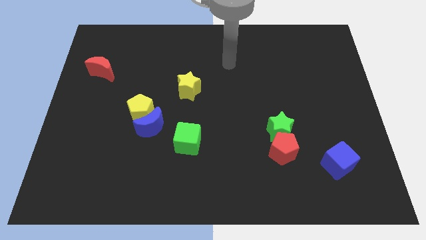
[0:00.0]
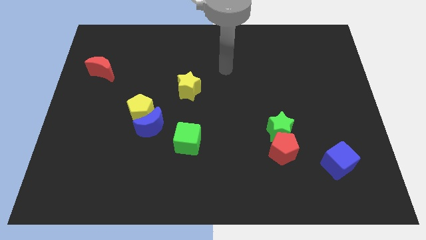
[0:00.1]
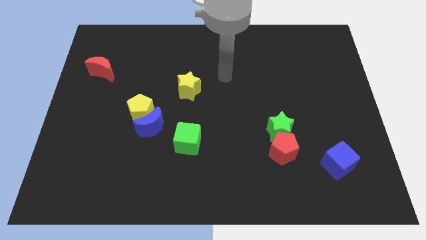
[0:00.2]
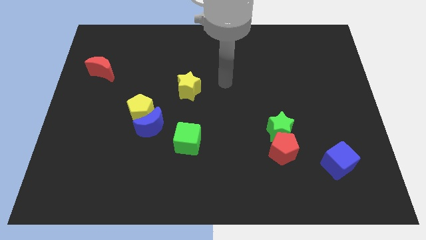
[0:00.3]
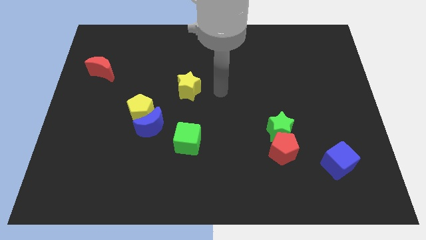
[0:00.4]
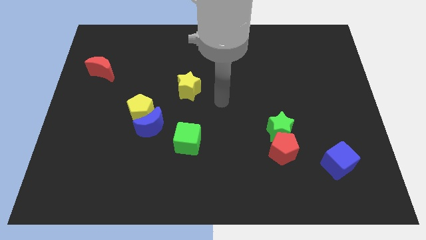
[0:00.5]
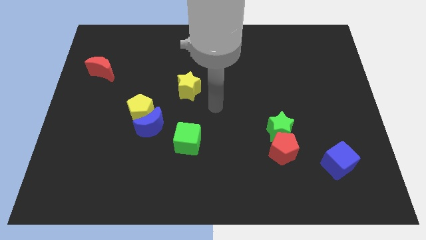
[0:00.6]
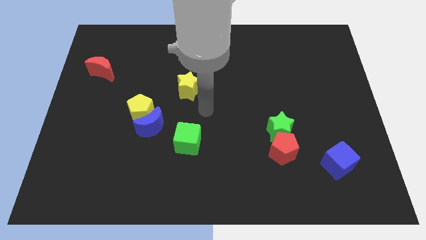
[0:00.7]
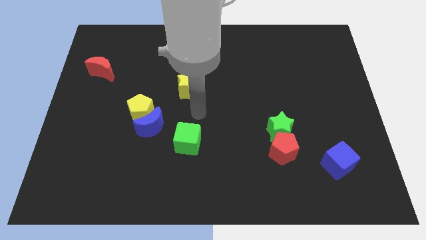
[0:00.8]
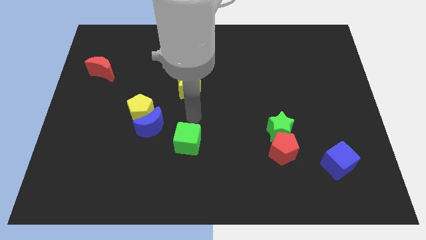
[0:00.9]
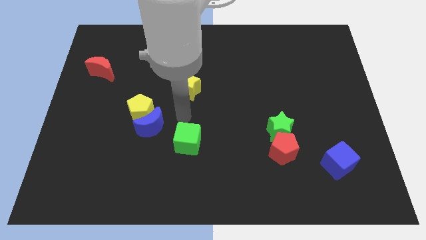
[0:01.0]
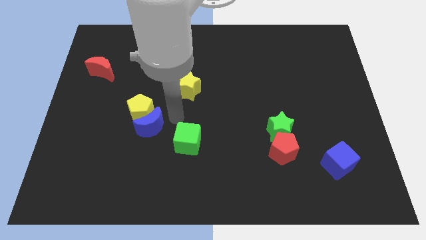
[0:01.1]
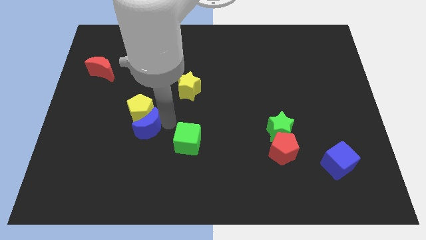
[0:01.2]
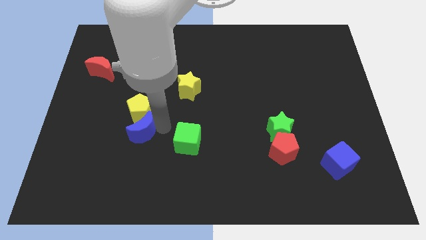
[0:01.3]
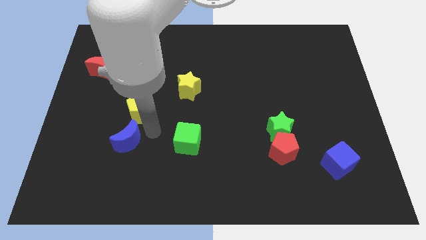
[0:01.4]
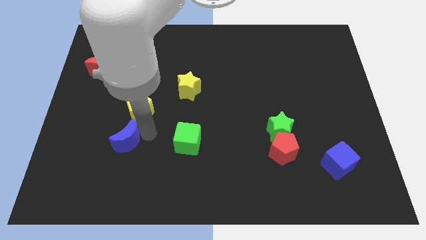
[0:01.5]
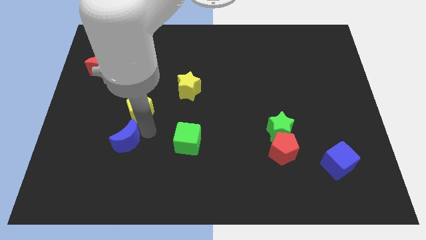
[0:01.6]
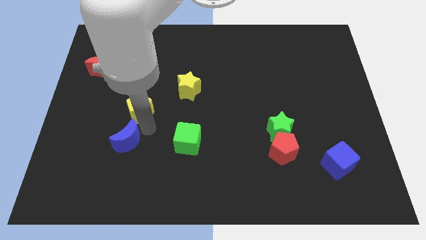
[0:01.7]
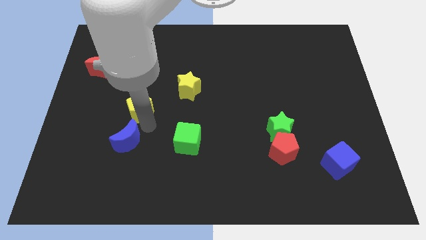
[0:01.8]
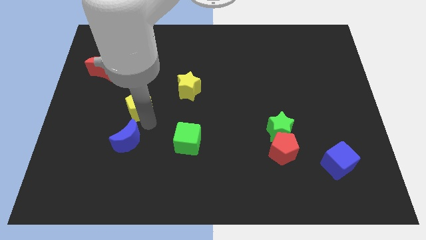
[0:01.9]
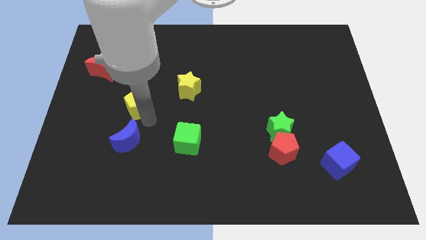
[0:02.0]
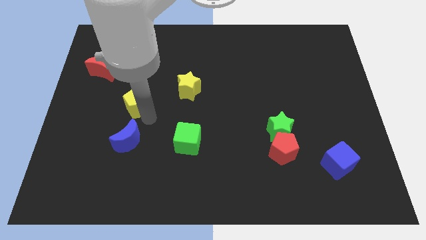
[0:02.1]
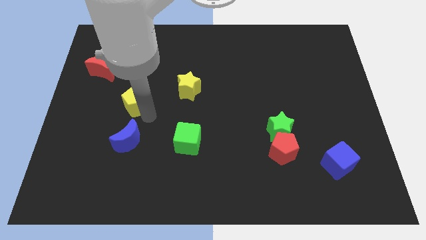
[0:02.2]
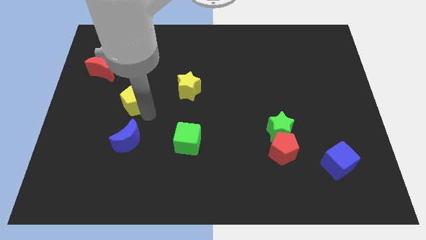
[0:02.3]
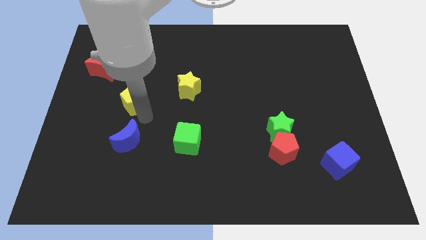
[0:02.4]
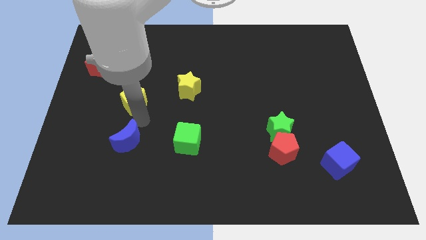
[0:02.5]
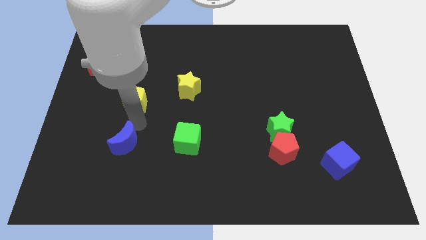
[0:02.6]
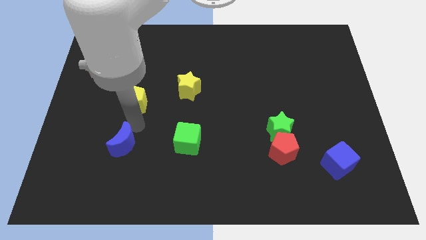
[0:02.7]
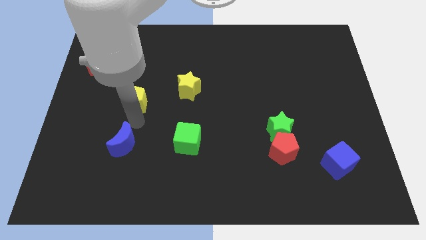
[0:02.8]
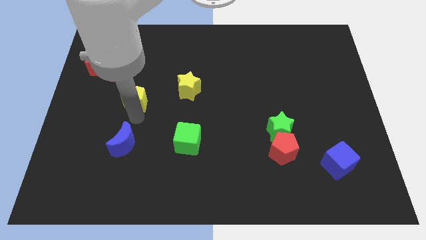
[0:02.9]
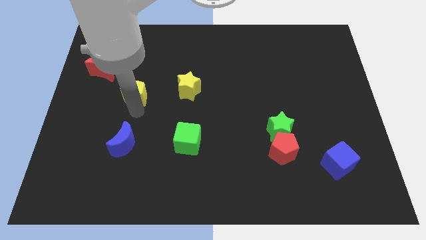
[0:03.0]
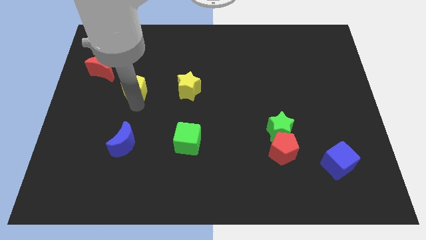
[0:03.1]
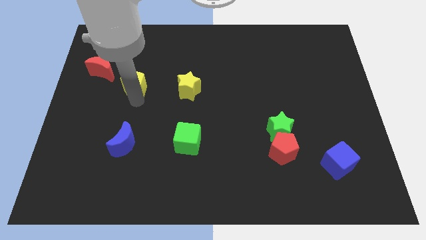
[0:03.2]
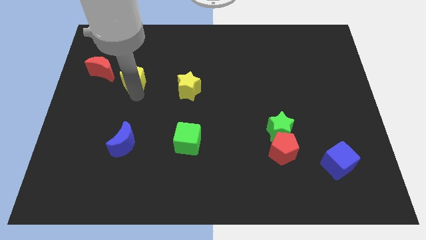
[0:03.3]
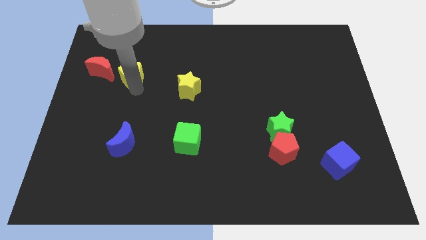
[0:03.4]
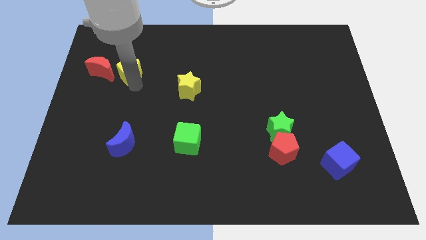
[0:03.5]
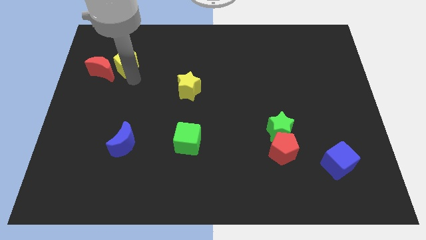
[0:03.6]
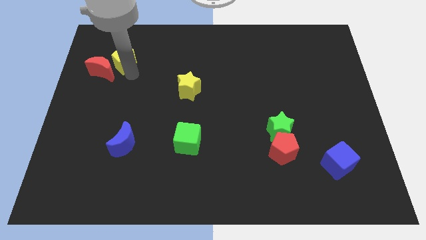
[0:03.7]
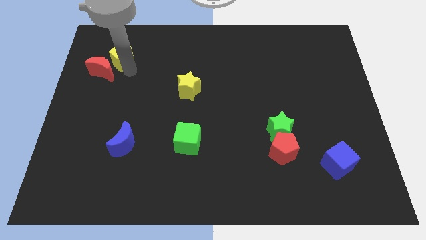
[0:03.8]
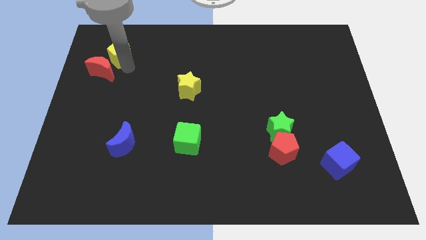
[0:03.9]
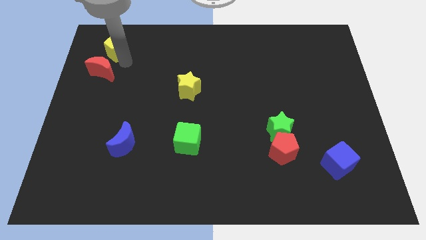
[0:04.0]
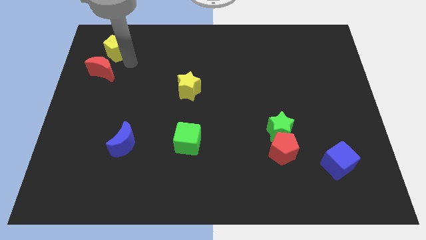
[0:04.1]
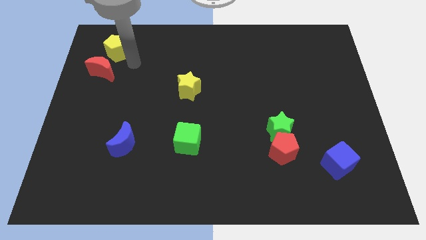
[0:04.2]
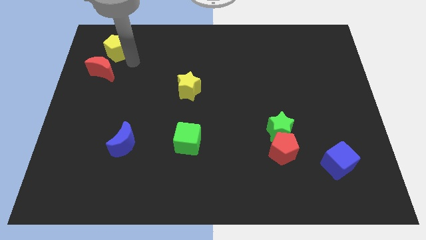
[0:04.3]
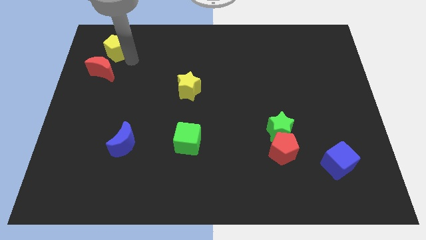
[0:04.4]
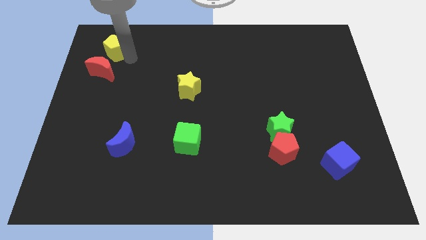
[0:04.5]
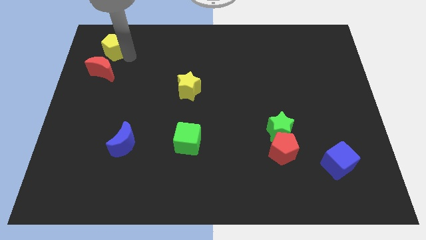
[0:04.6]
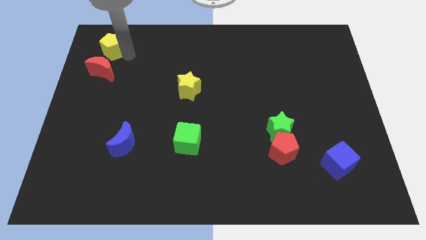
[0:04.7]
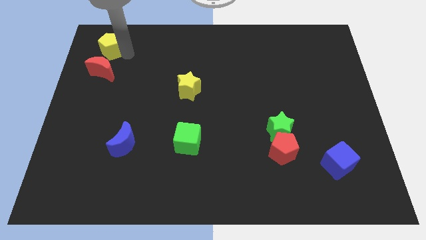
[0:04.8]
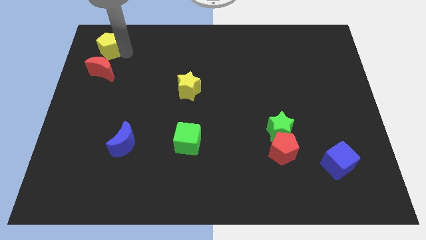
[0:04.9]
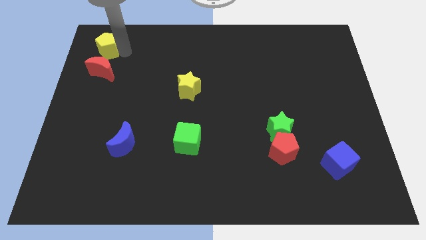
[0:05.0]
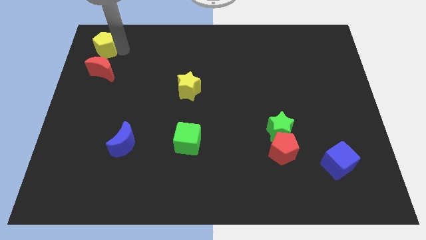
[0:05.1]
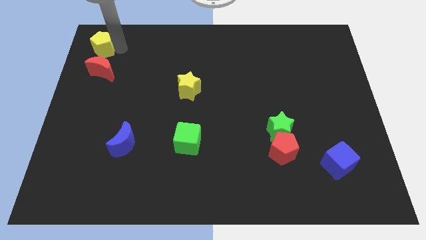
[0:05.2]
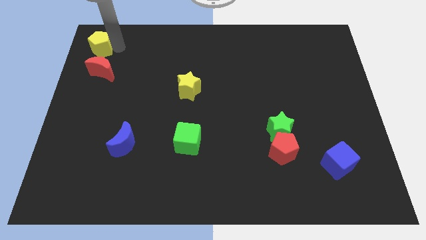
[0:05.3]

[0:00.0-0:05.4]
put the yellow pentagon to the top left

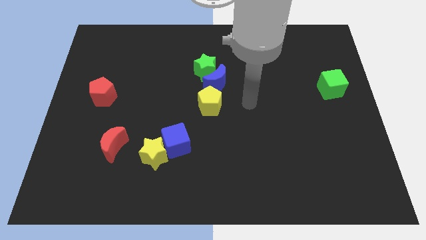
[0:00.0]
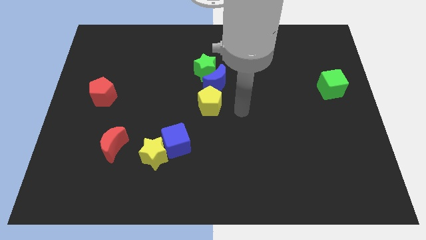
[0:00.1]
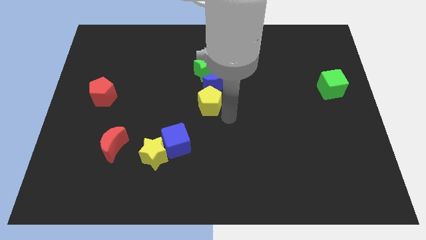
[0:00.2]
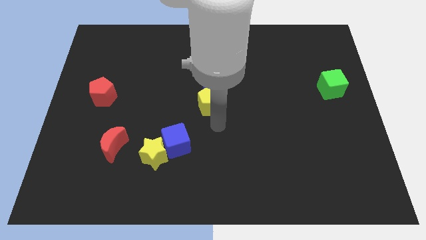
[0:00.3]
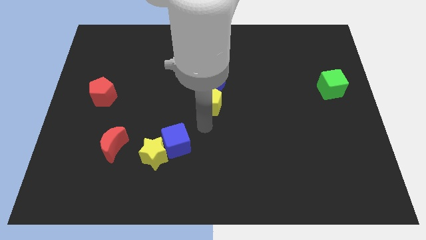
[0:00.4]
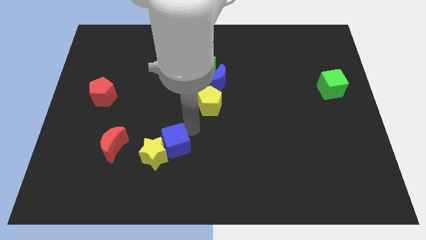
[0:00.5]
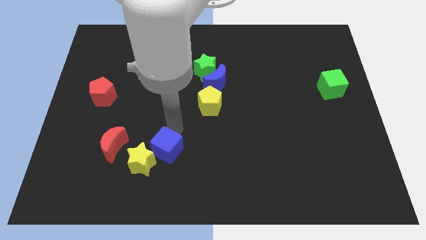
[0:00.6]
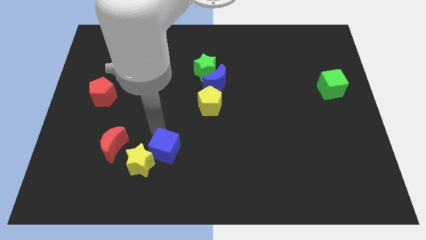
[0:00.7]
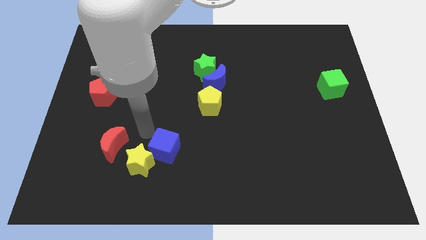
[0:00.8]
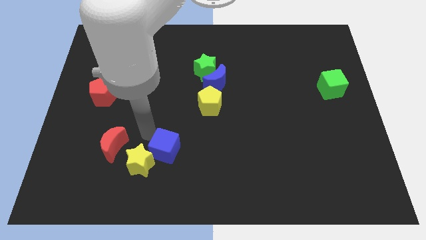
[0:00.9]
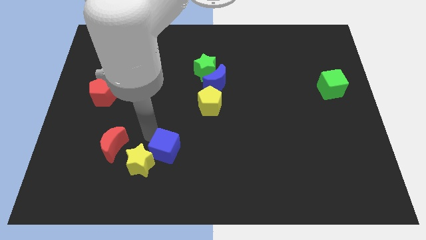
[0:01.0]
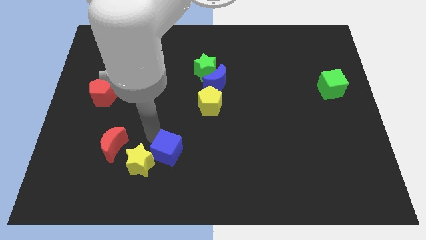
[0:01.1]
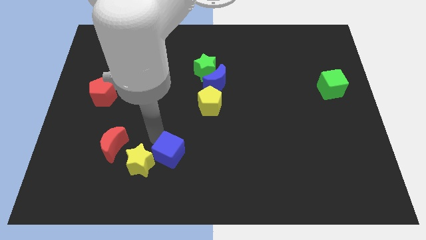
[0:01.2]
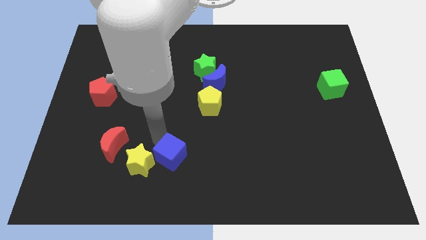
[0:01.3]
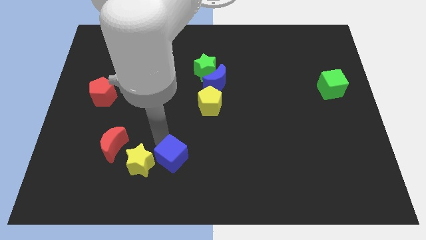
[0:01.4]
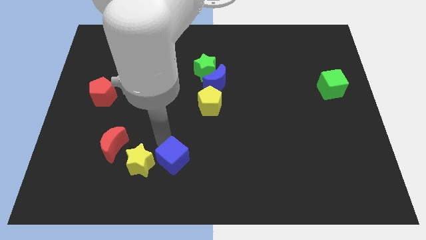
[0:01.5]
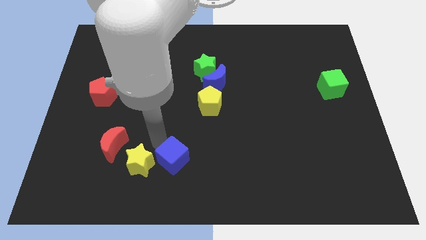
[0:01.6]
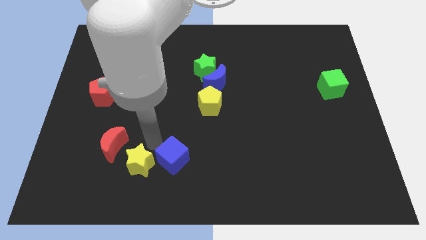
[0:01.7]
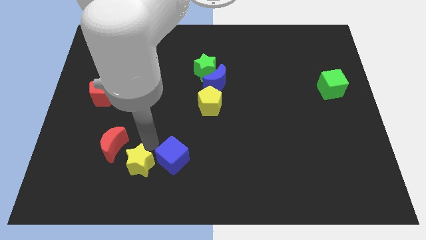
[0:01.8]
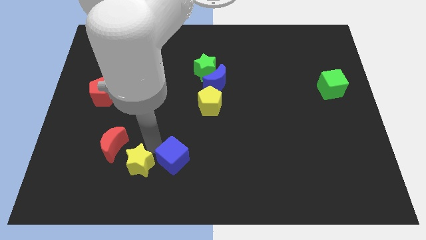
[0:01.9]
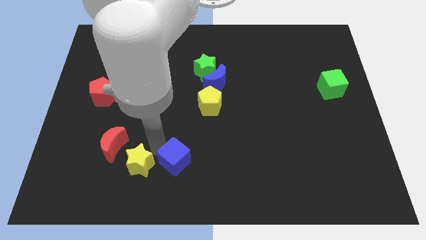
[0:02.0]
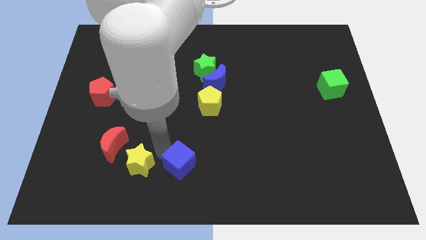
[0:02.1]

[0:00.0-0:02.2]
slide the blue cube to the bottom
